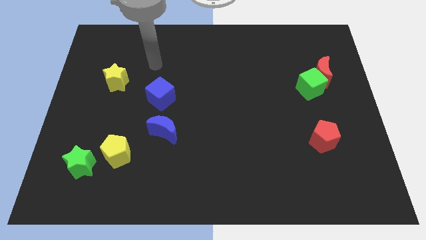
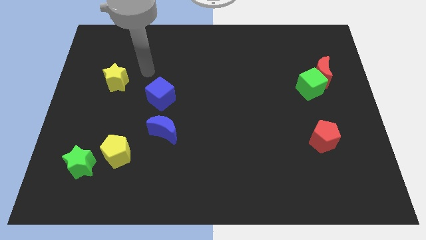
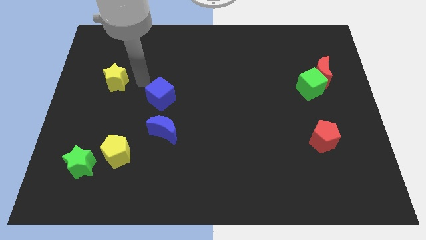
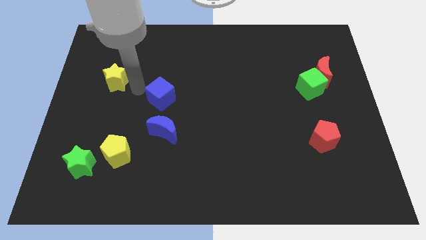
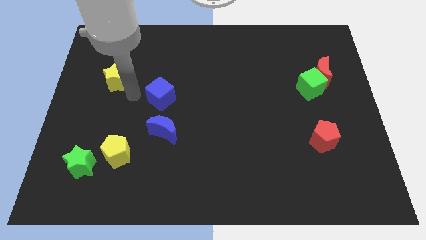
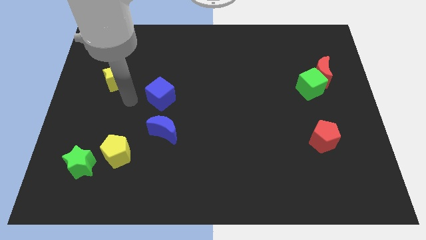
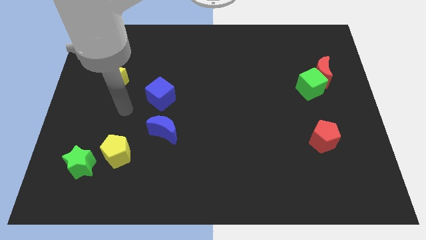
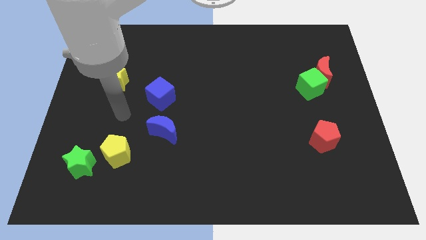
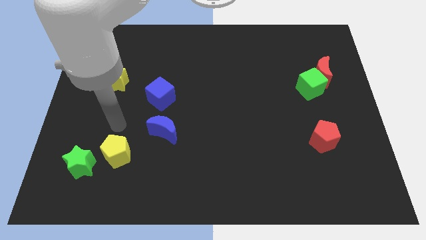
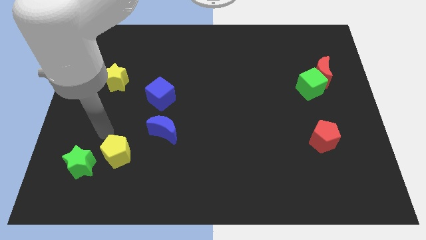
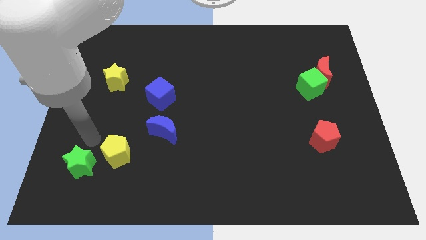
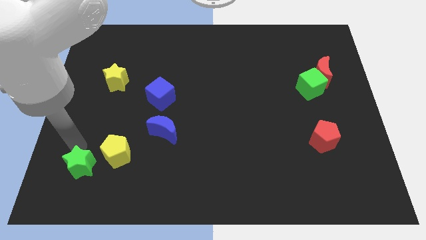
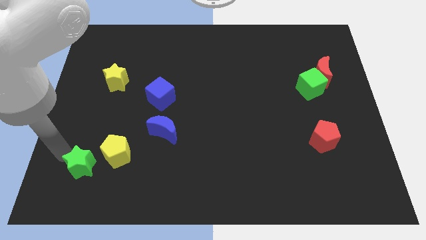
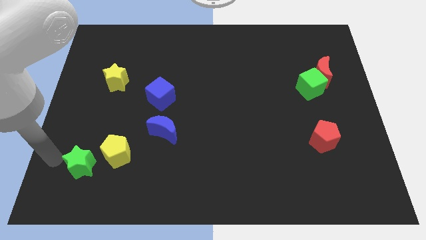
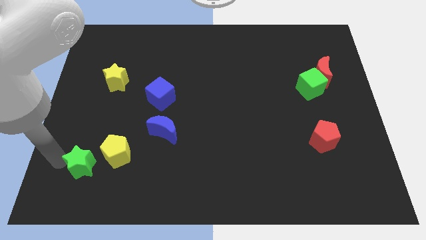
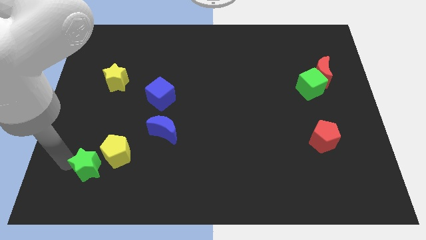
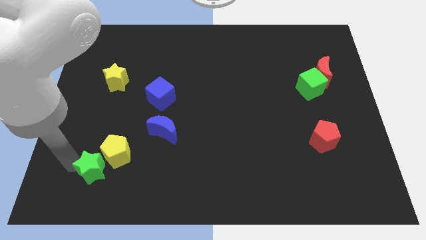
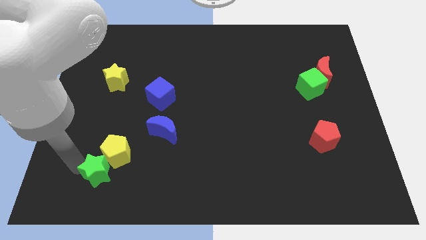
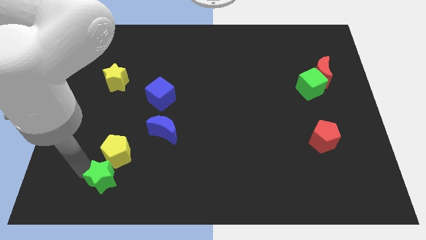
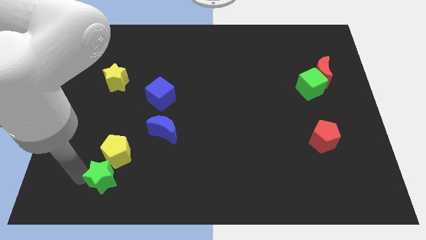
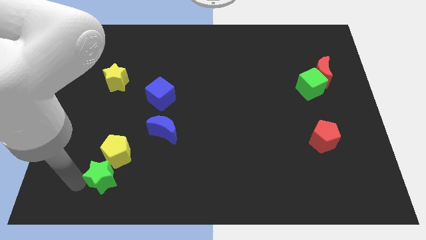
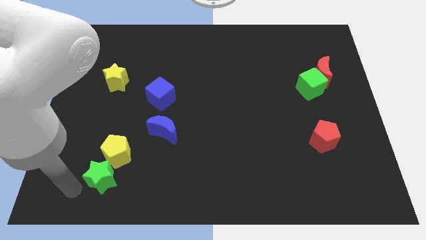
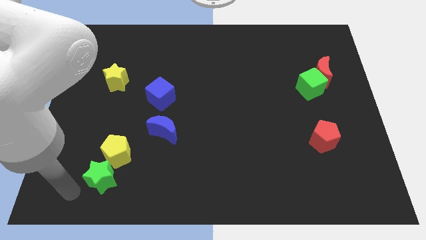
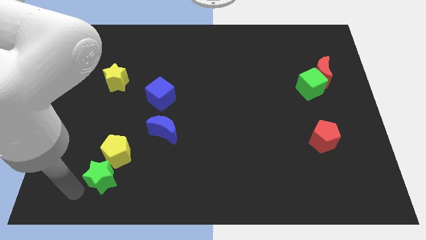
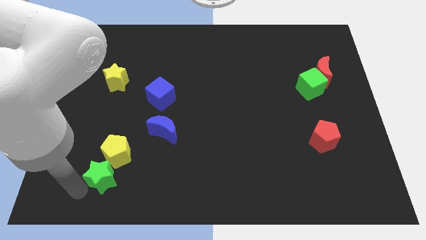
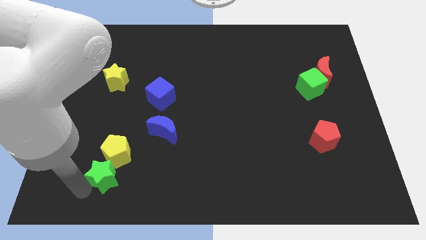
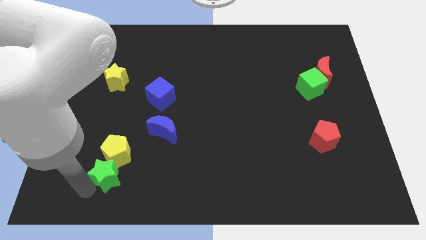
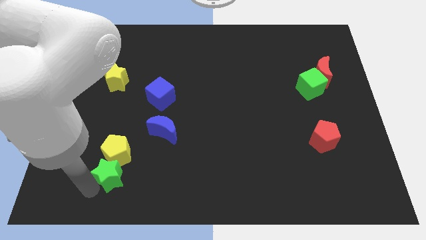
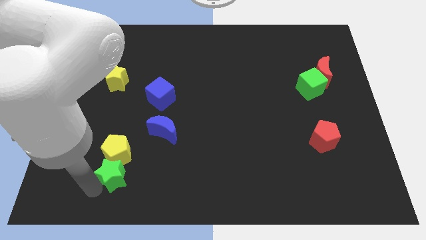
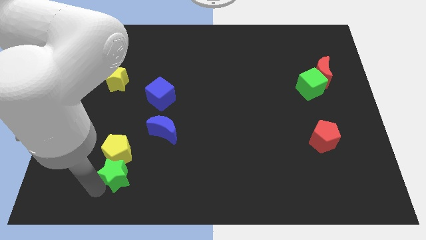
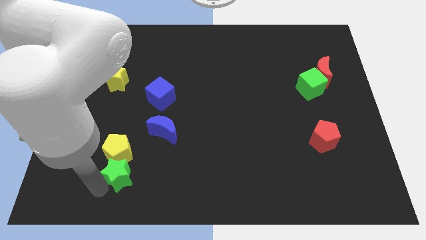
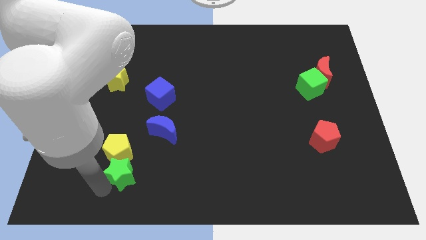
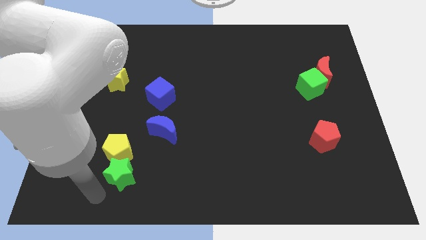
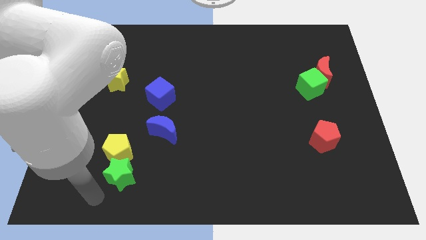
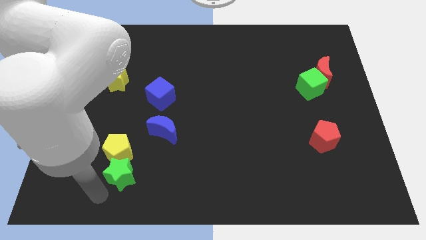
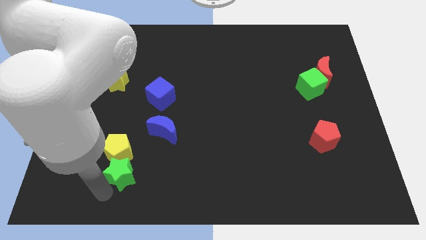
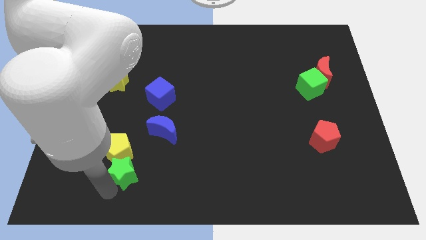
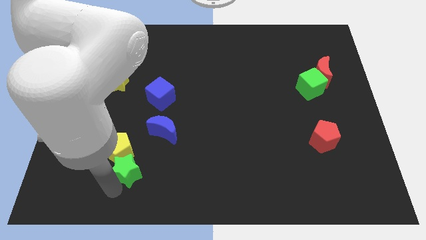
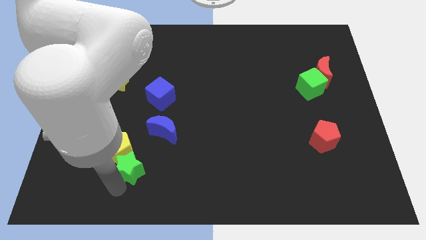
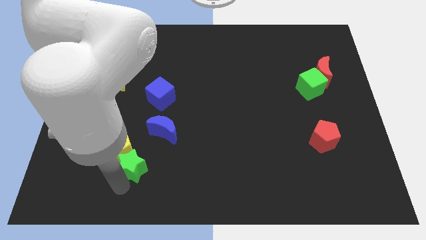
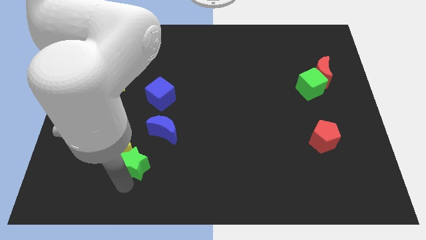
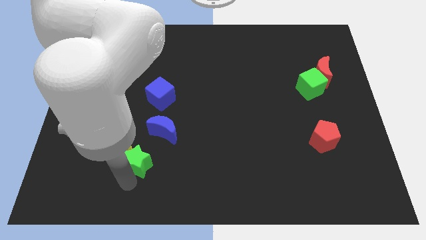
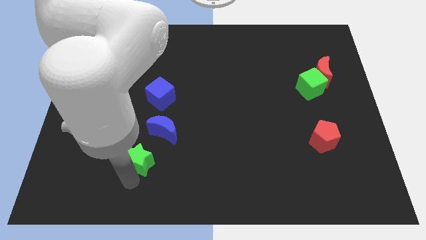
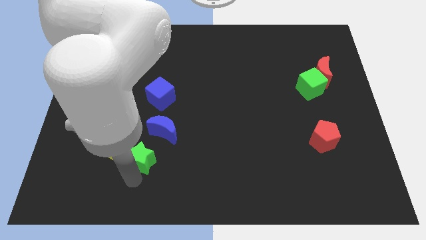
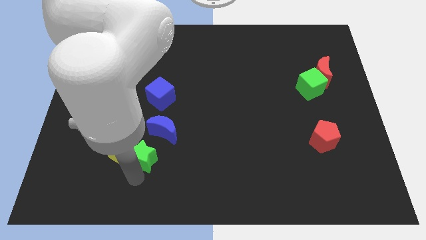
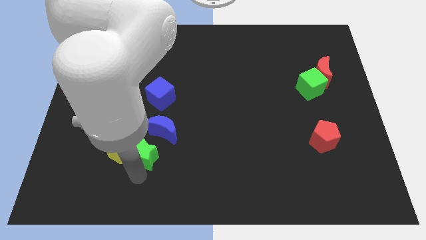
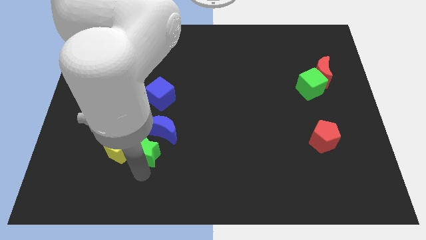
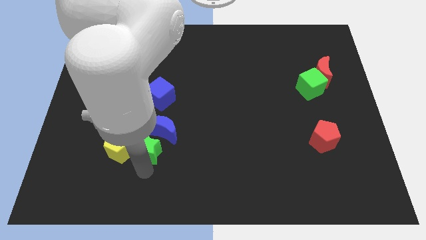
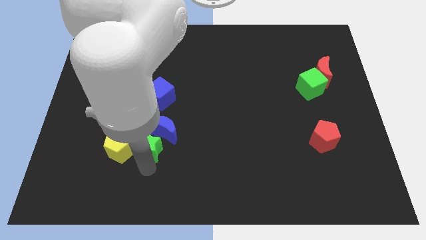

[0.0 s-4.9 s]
move the green star close to the blue moon

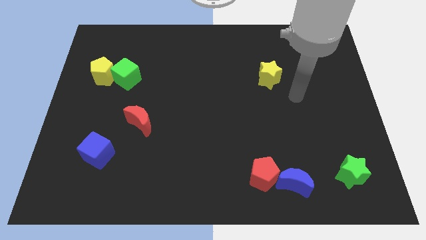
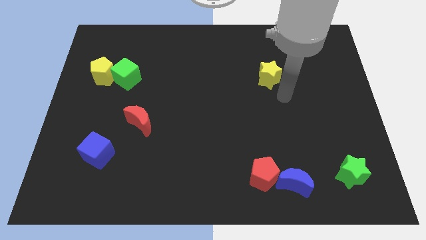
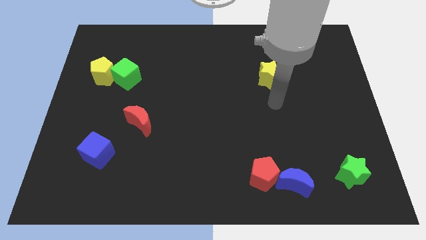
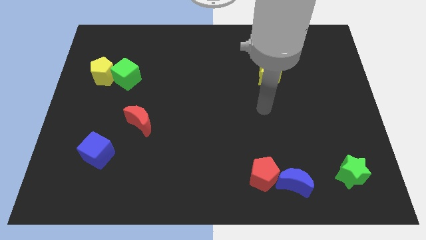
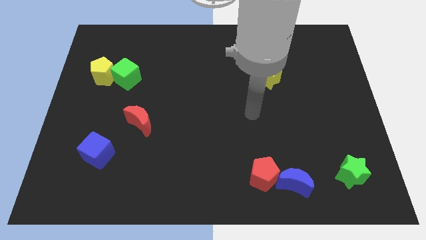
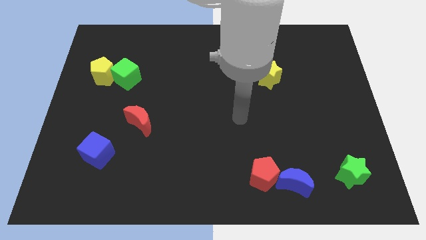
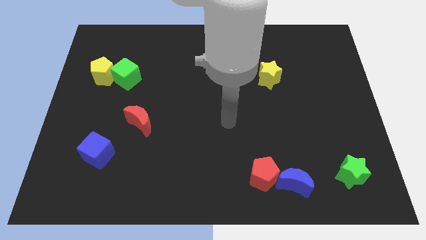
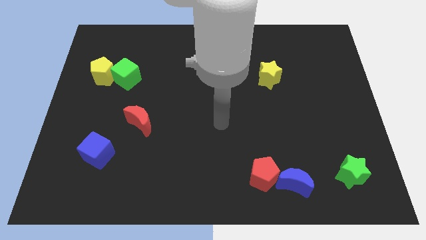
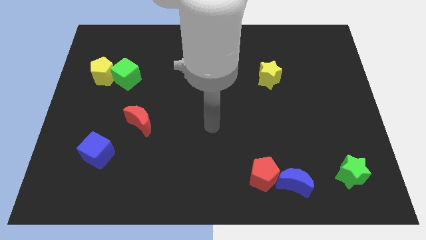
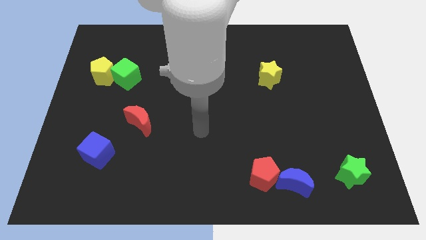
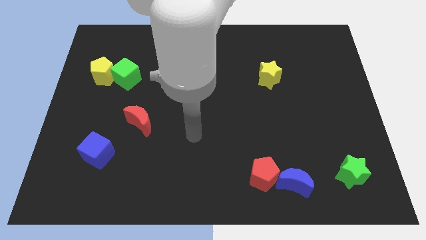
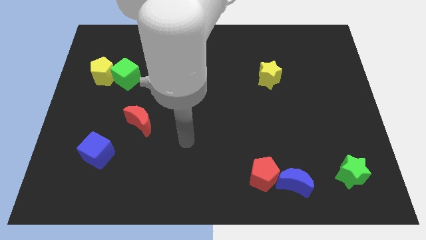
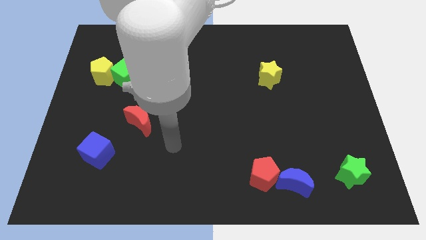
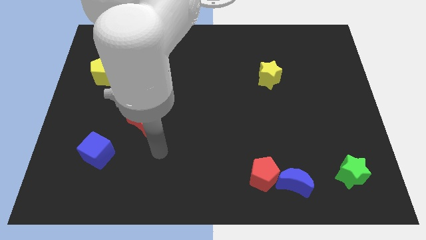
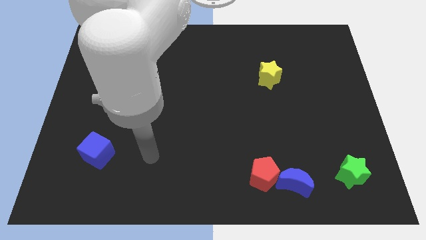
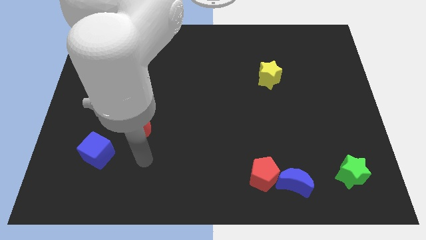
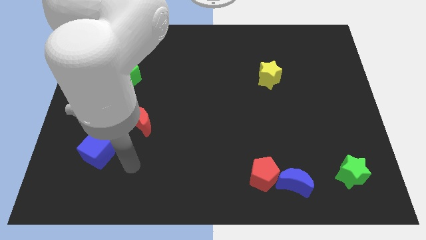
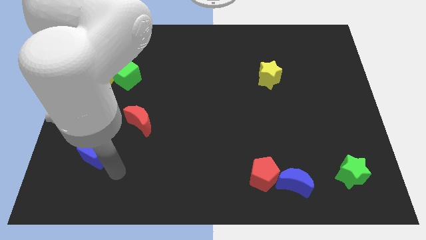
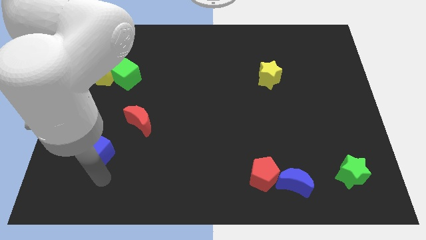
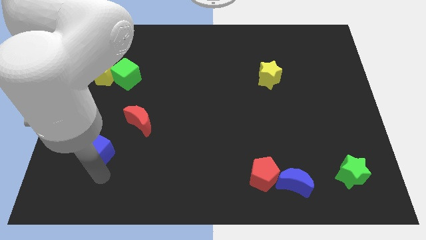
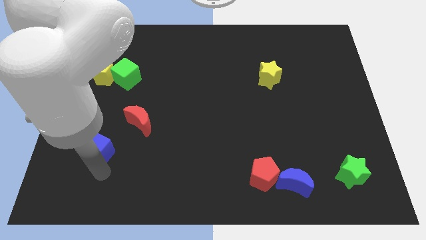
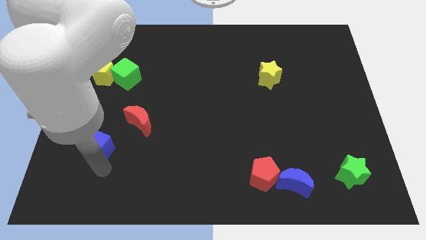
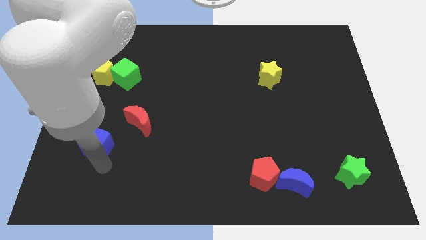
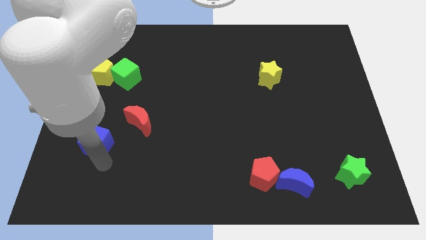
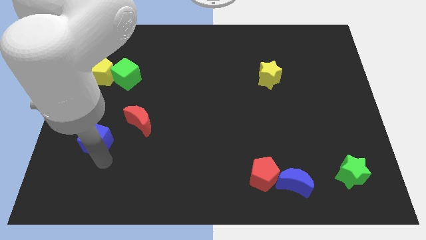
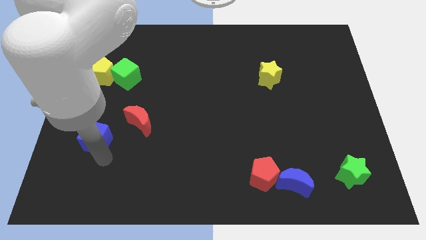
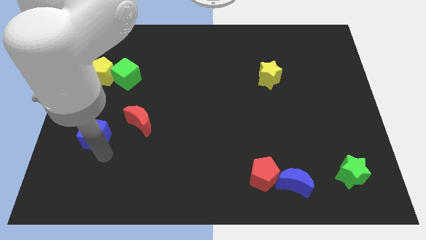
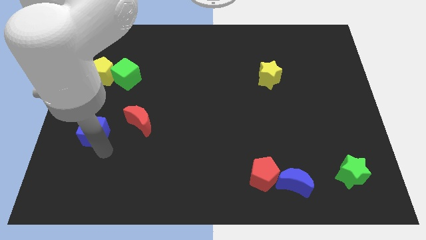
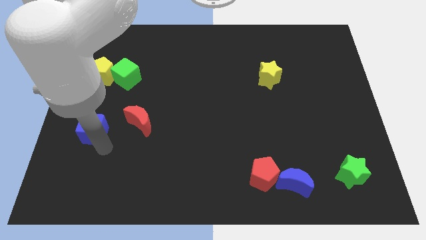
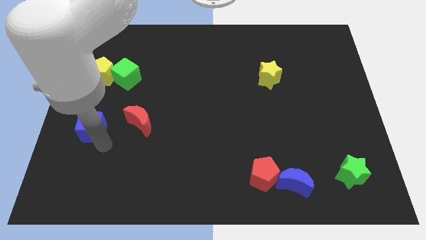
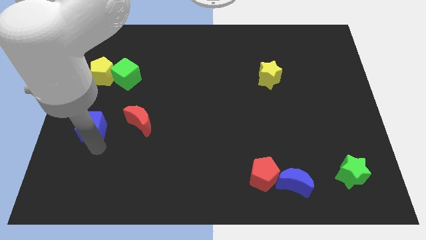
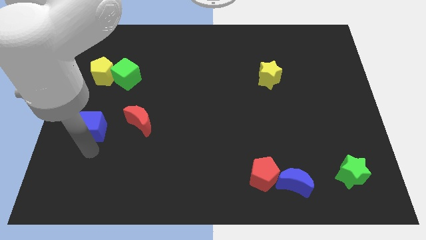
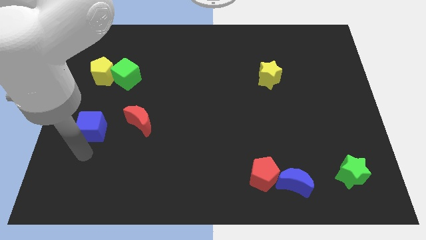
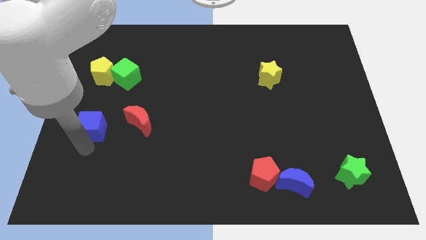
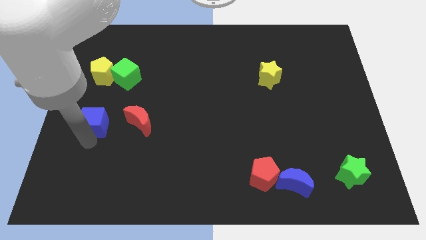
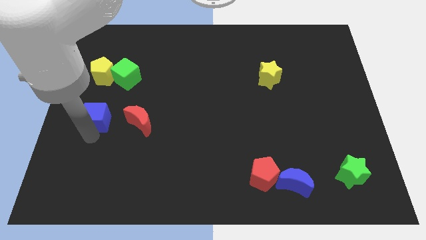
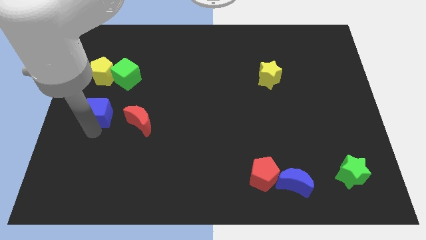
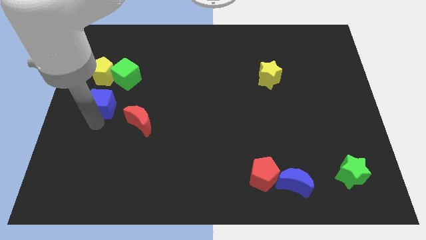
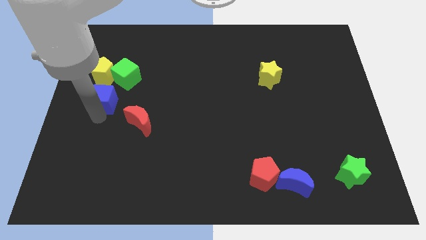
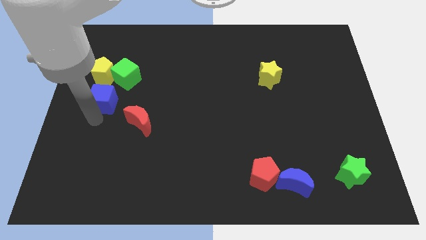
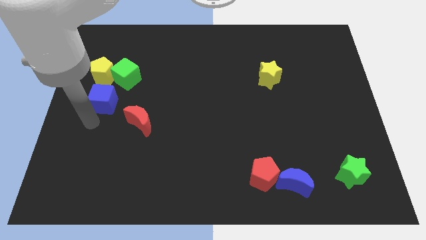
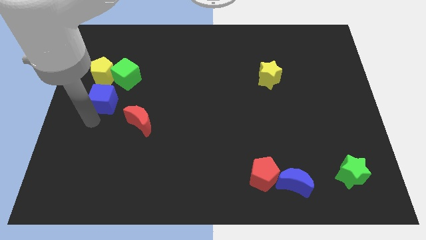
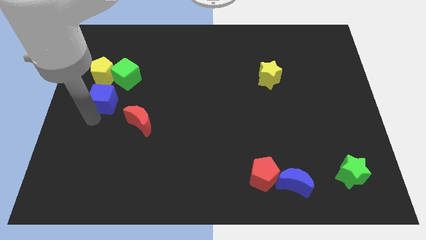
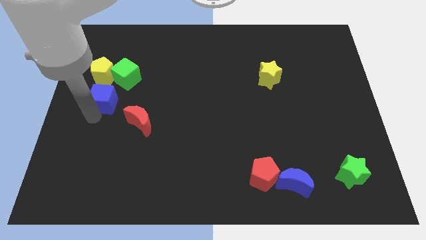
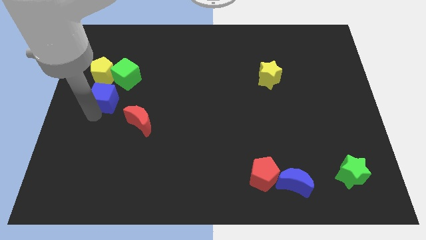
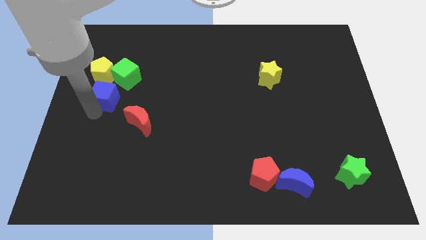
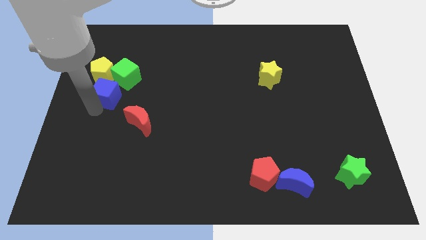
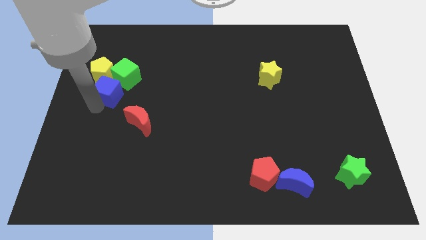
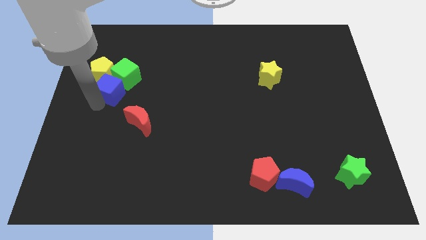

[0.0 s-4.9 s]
move the blue cube next to the green cube
